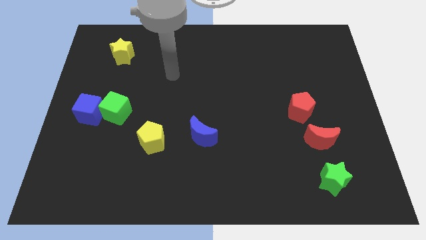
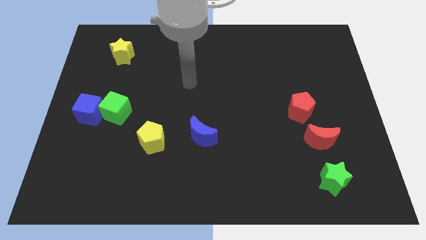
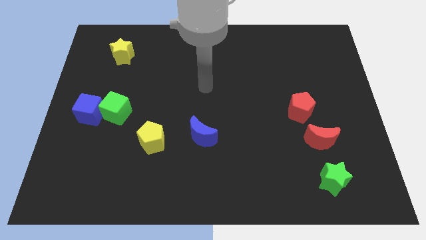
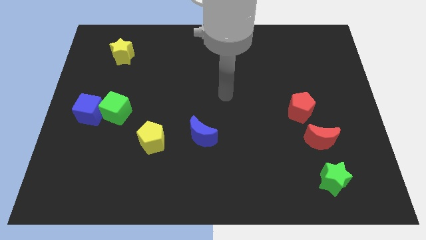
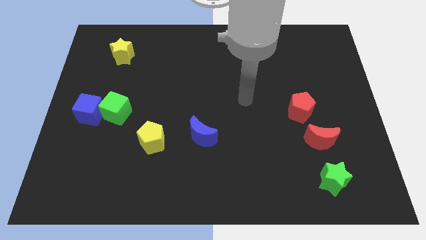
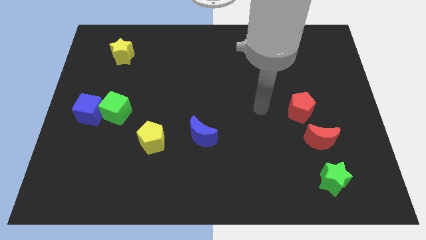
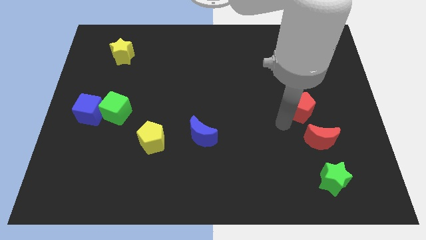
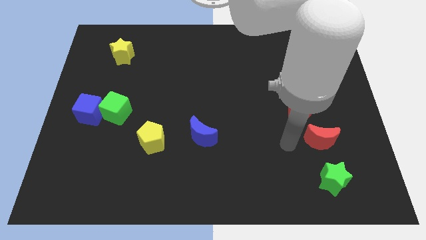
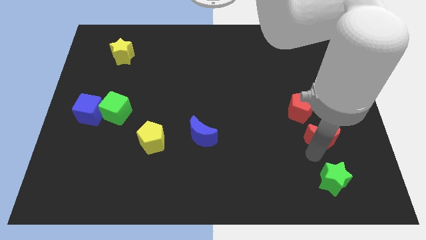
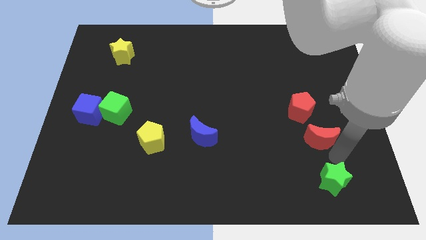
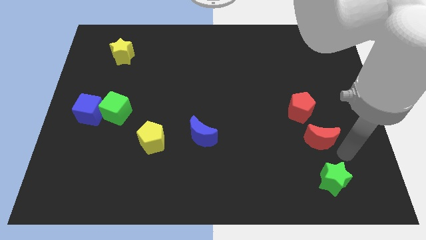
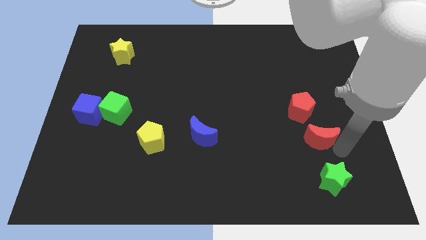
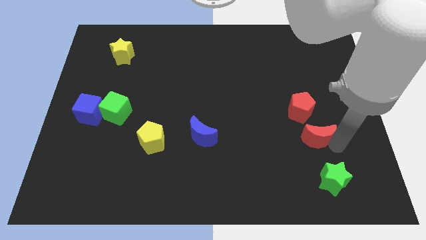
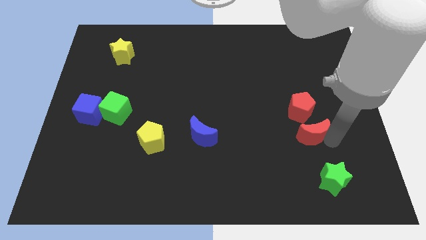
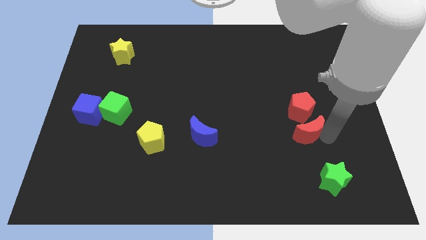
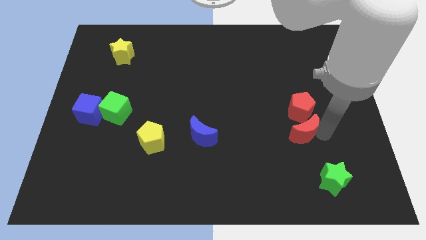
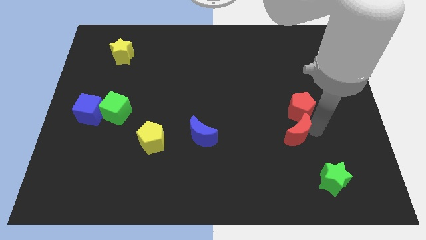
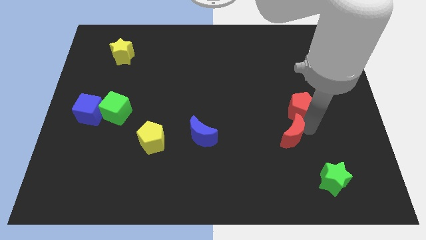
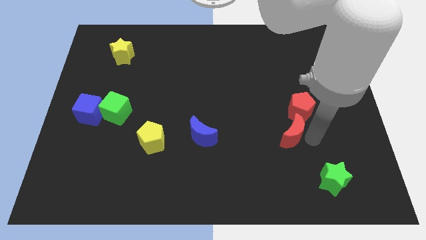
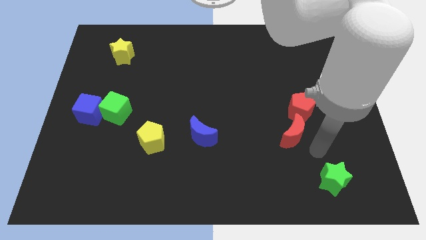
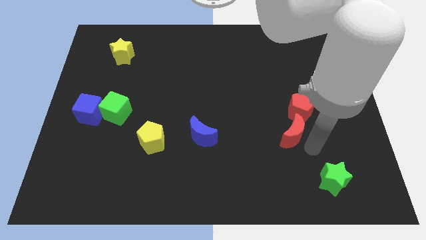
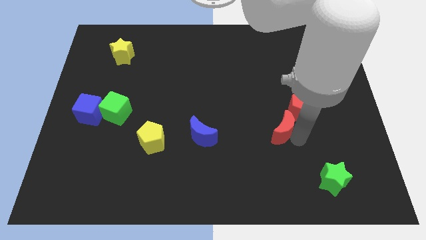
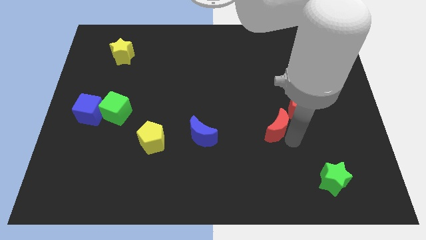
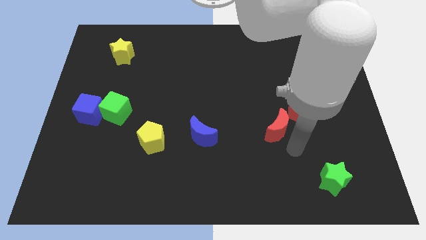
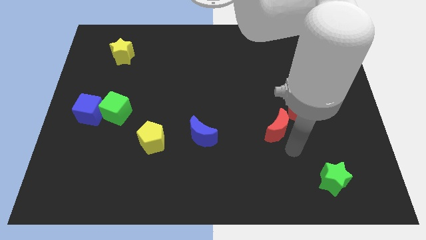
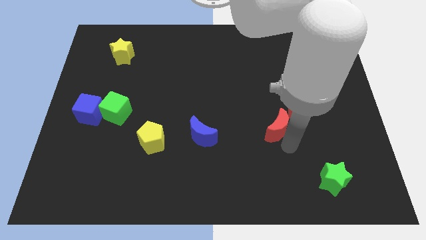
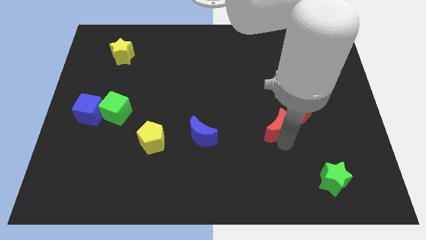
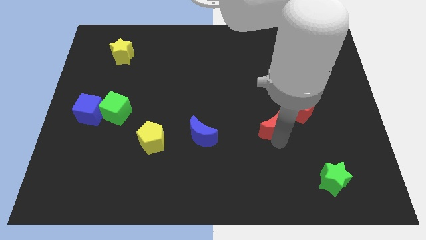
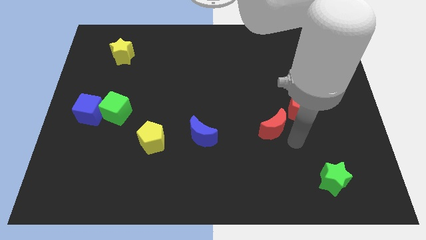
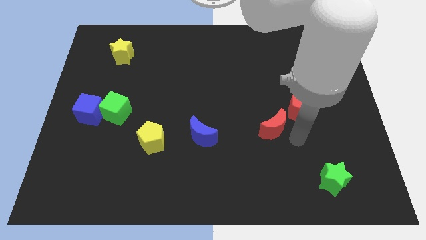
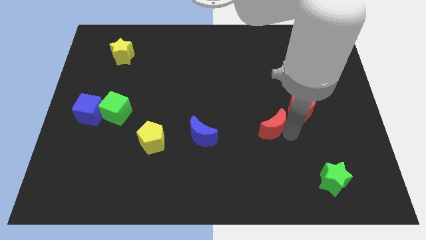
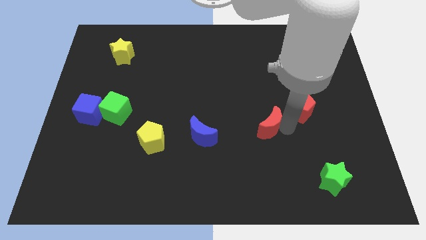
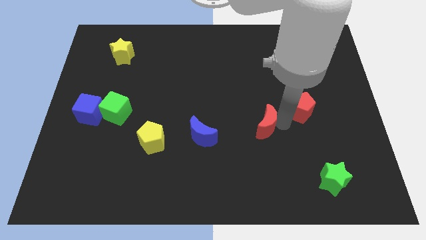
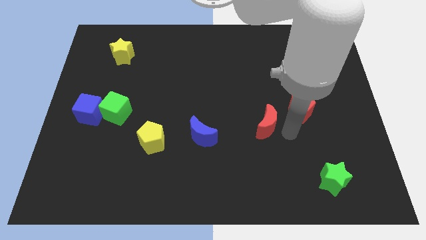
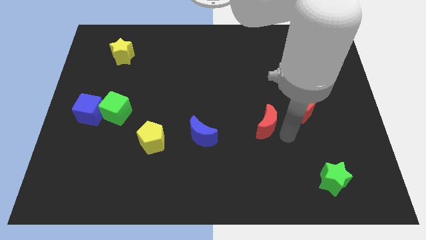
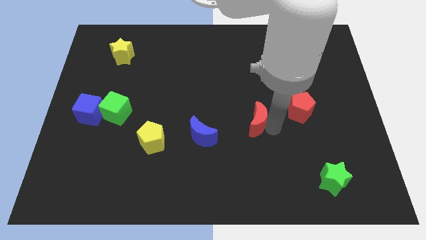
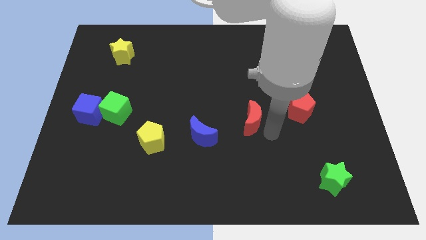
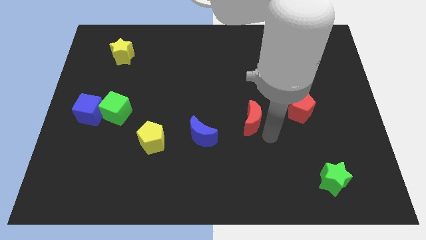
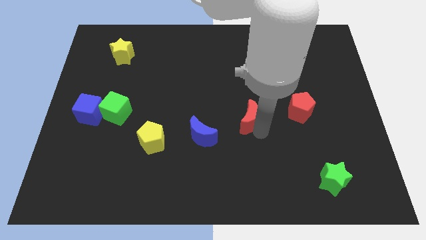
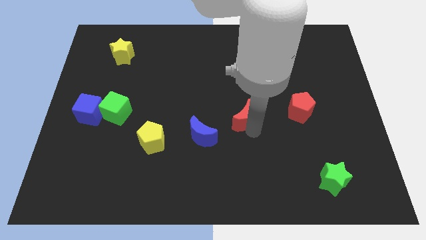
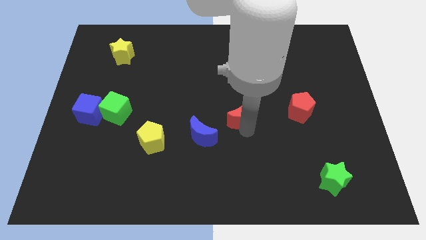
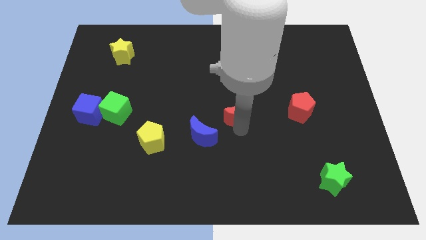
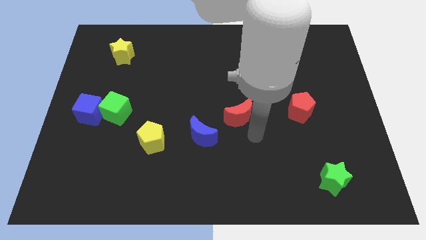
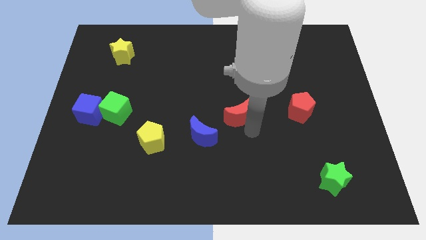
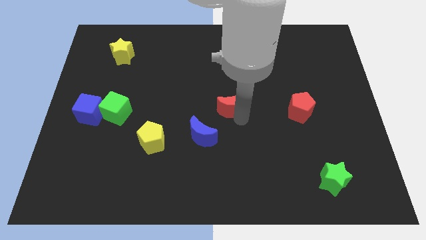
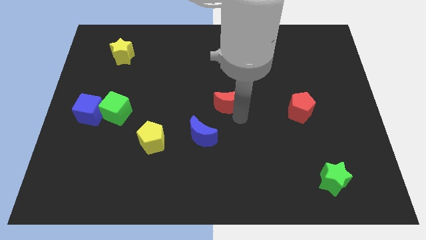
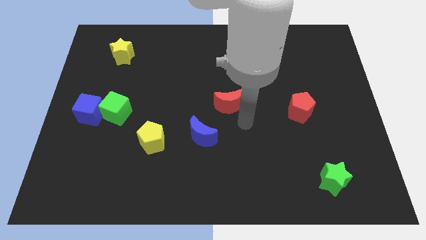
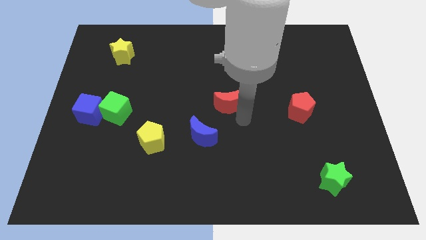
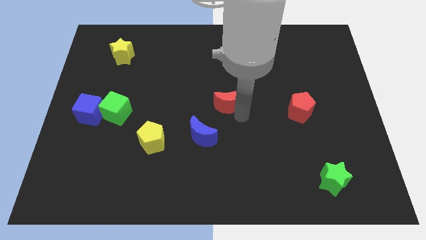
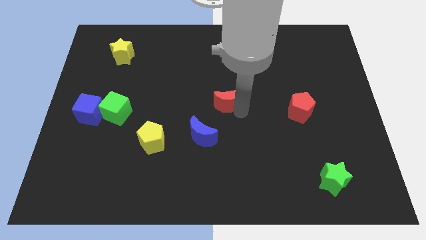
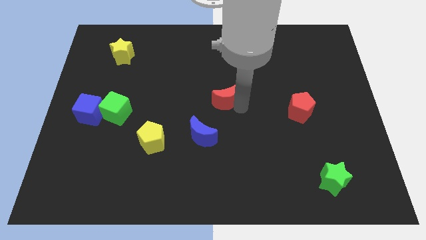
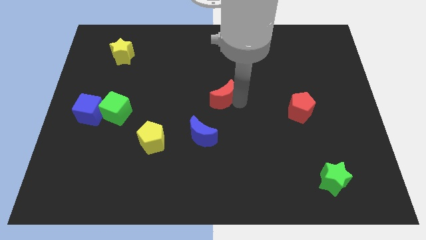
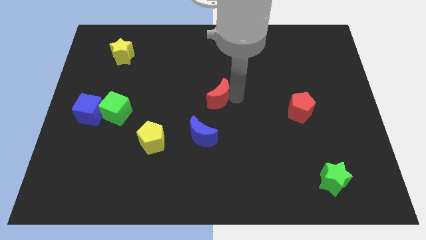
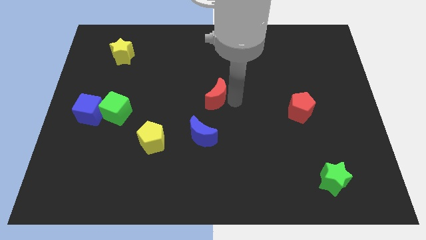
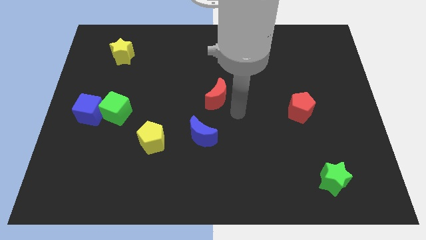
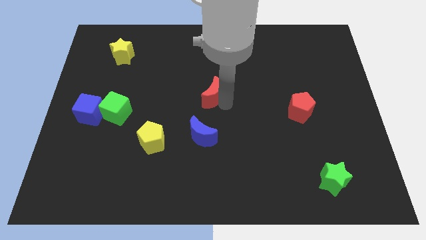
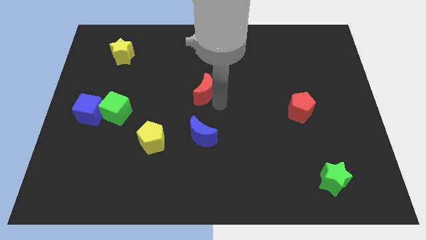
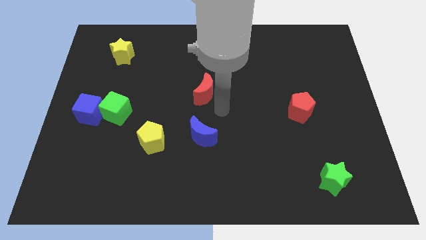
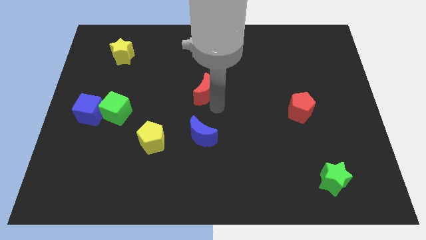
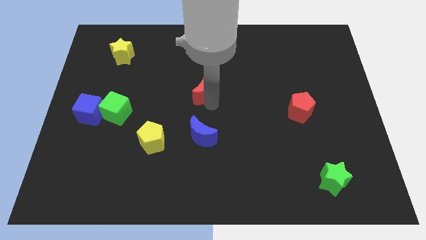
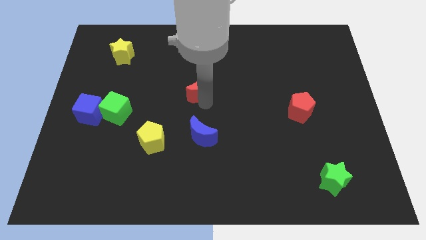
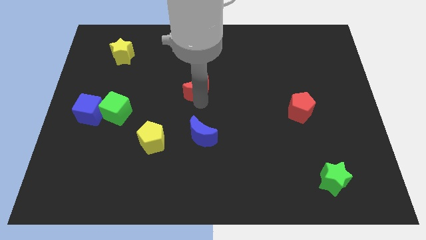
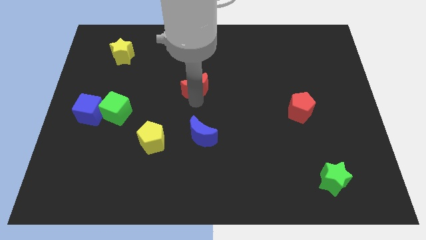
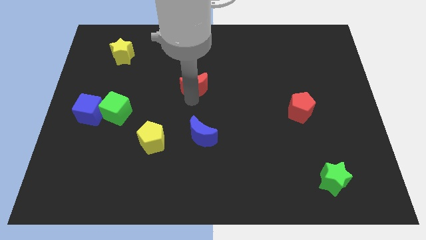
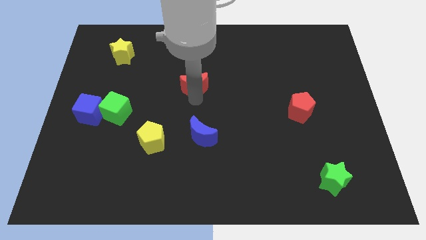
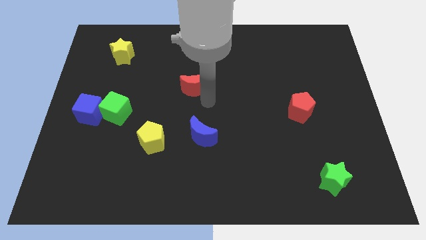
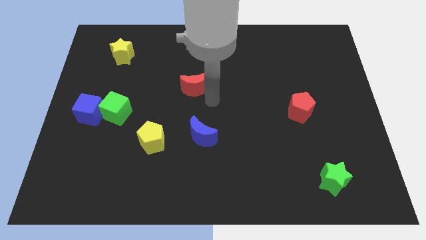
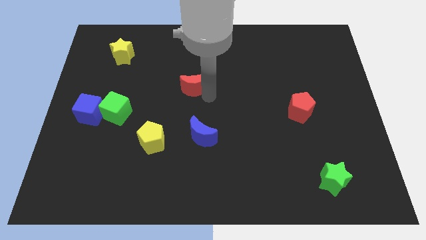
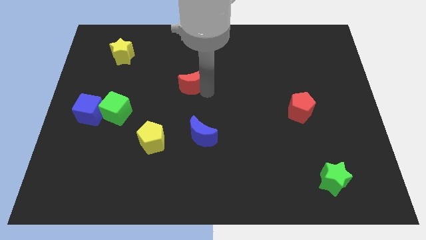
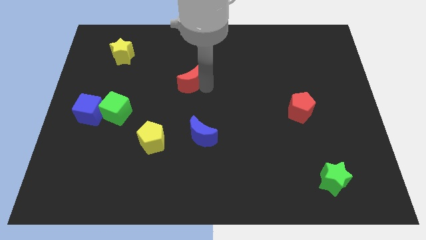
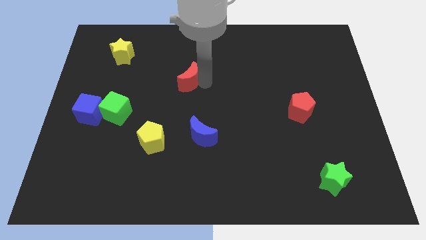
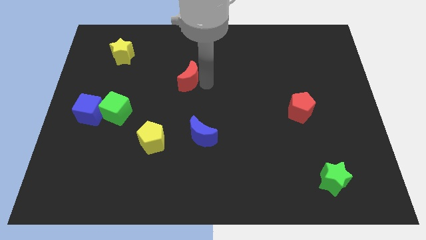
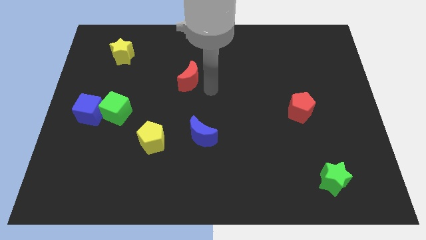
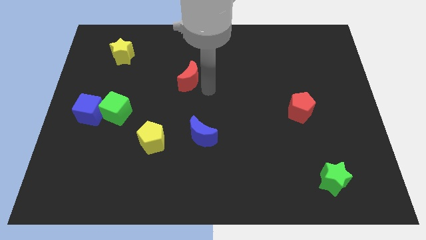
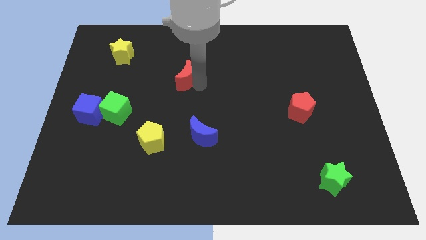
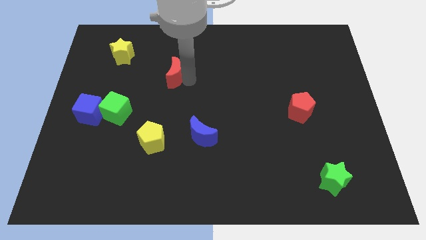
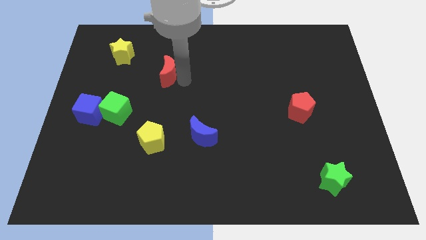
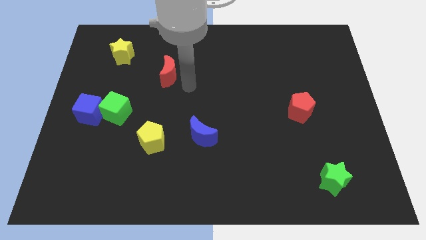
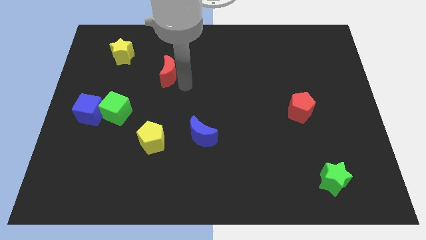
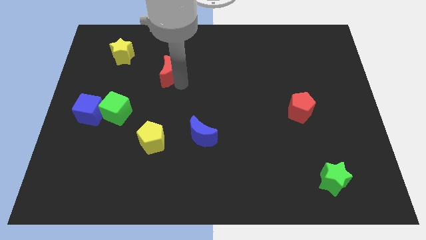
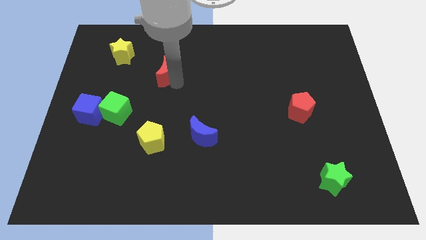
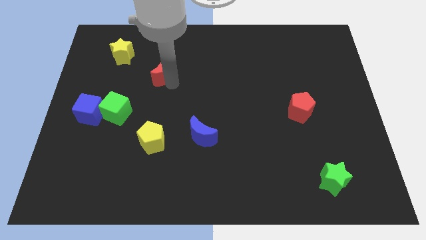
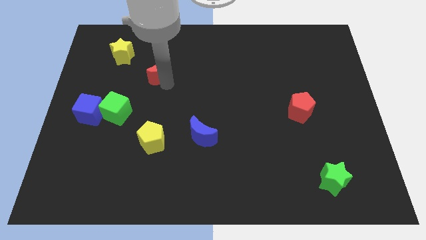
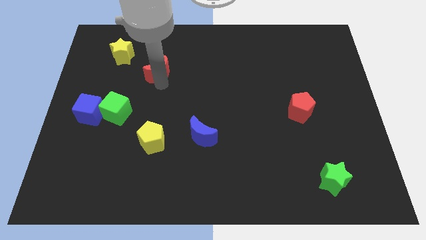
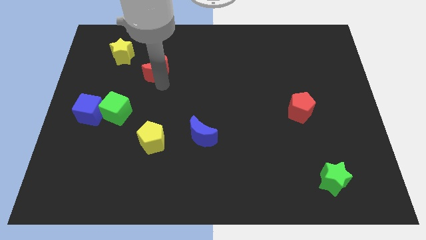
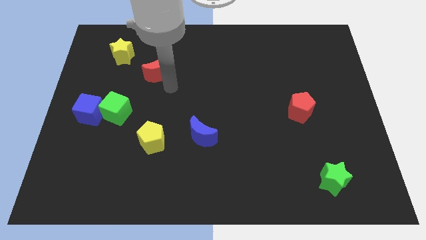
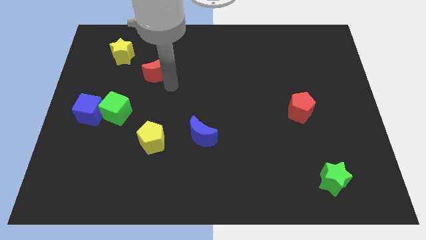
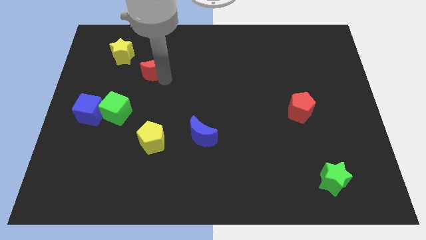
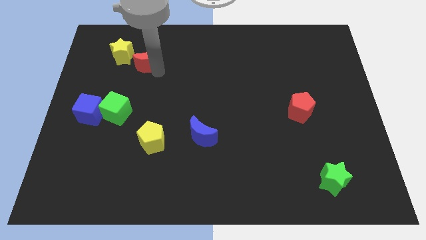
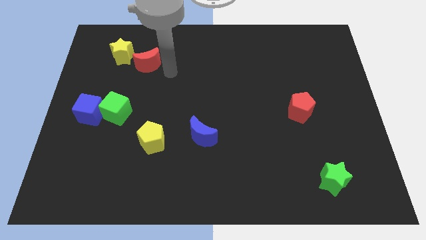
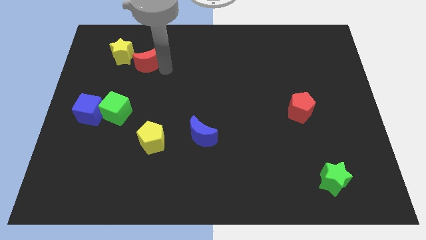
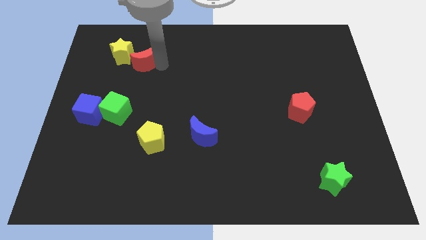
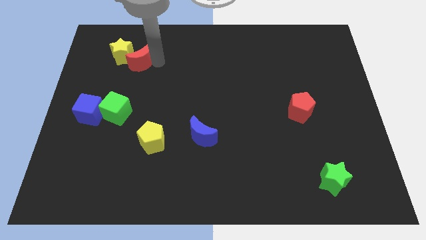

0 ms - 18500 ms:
push the red moon next to the yellow star
